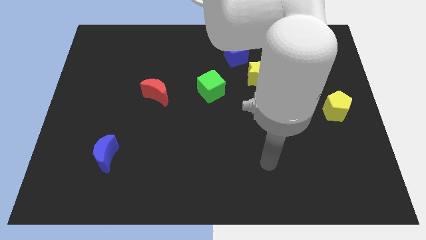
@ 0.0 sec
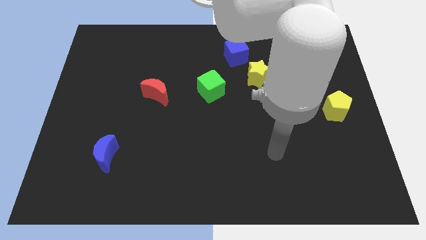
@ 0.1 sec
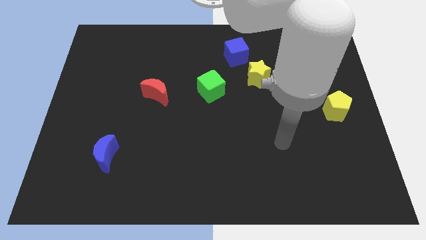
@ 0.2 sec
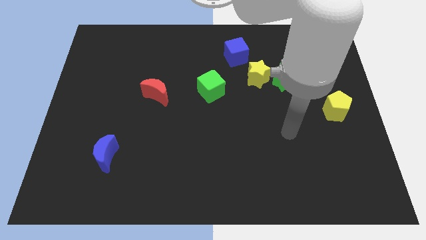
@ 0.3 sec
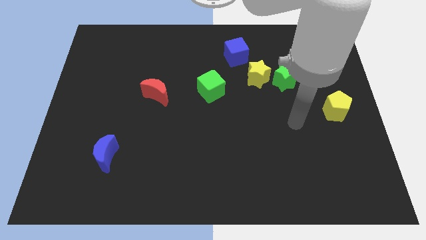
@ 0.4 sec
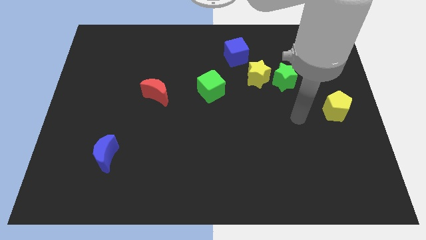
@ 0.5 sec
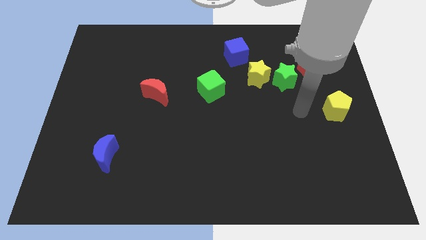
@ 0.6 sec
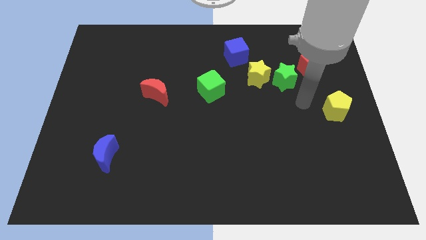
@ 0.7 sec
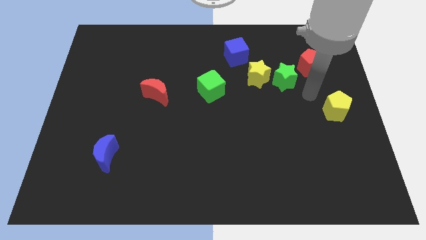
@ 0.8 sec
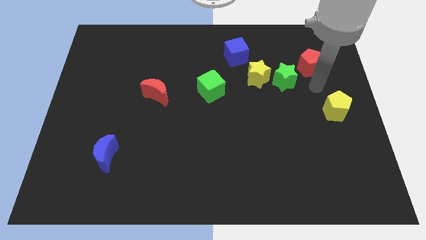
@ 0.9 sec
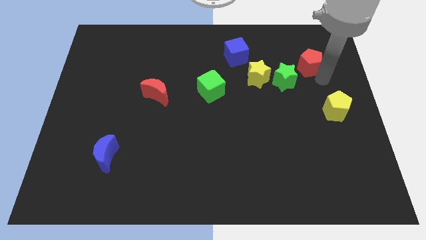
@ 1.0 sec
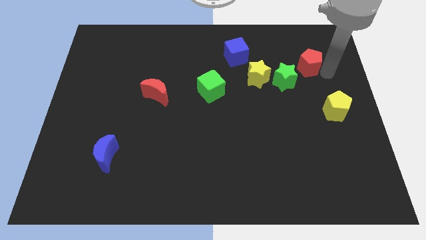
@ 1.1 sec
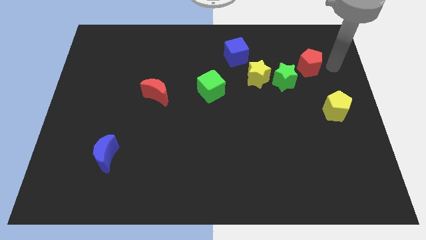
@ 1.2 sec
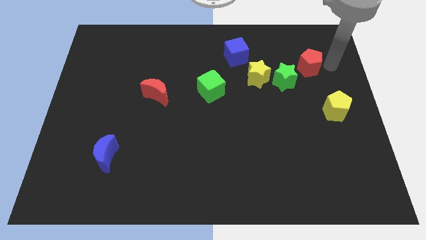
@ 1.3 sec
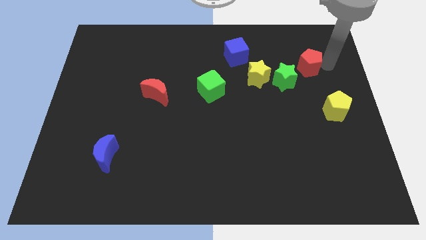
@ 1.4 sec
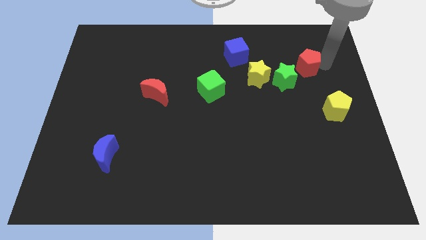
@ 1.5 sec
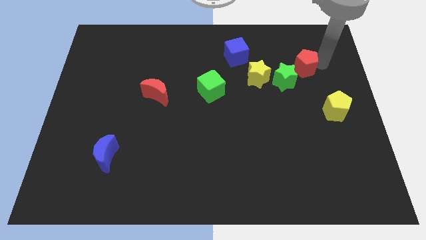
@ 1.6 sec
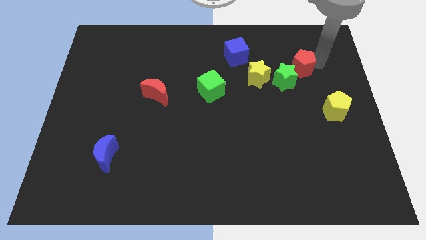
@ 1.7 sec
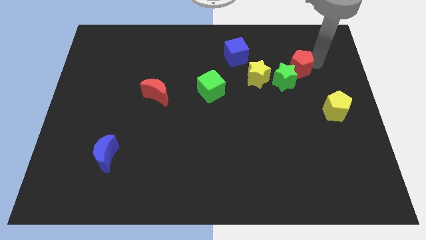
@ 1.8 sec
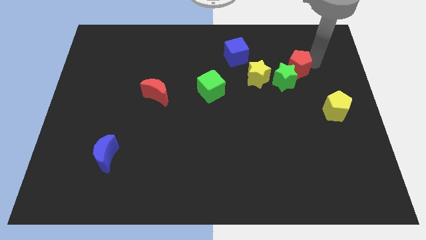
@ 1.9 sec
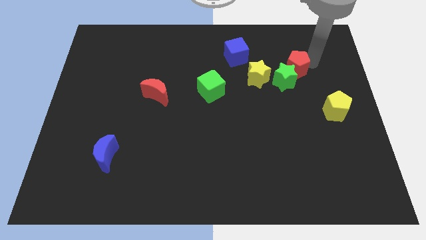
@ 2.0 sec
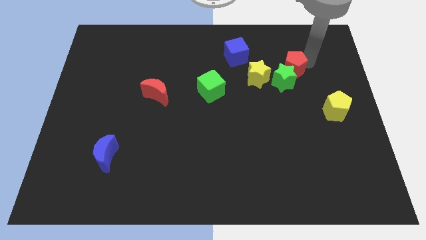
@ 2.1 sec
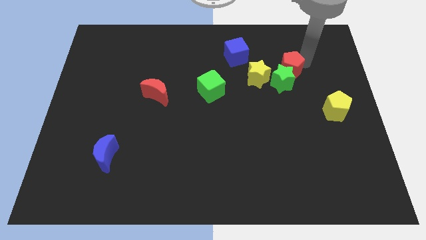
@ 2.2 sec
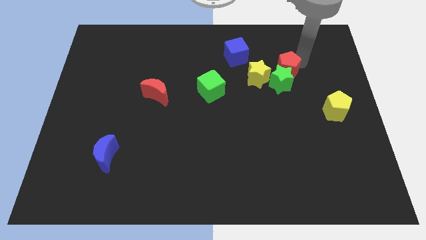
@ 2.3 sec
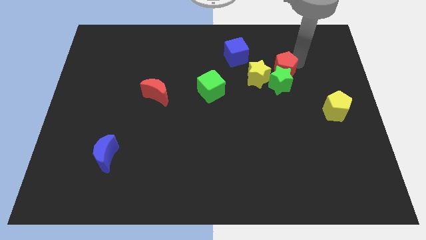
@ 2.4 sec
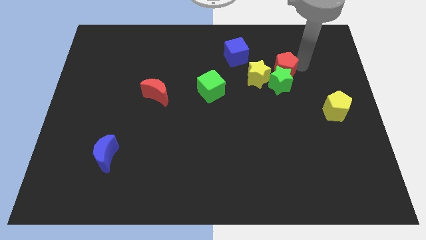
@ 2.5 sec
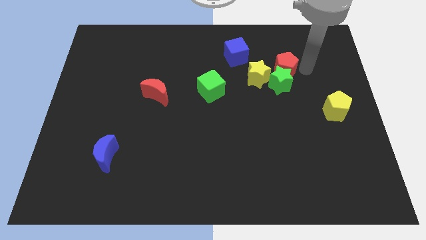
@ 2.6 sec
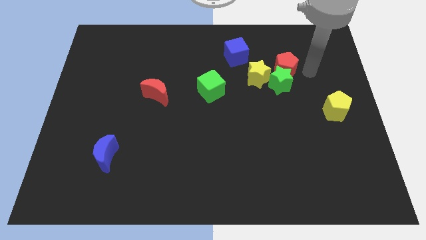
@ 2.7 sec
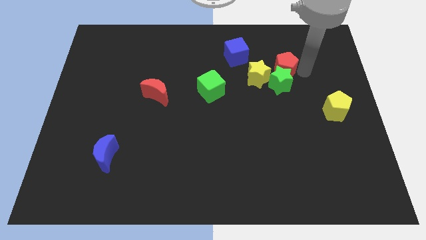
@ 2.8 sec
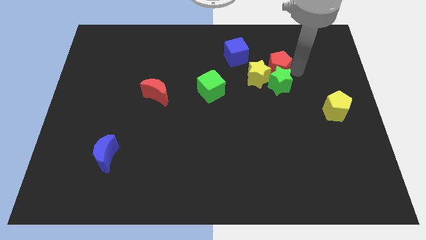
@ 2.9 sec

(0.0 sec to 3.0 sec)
push the red pentagon a little bit left

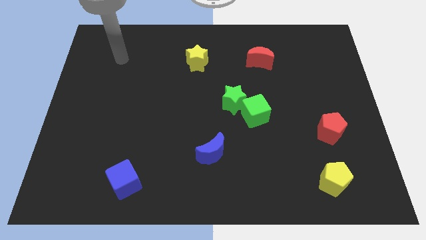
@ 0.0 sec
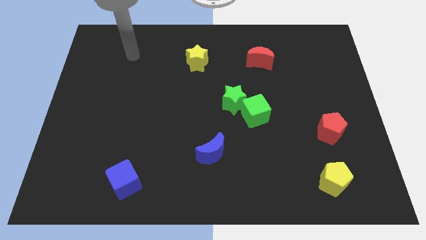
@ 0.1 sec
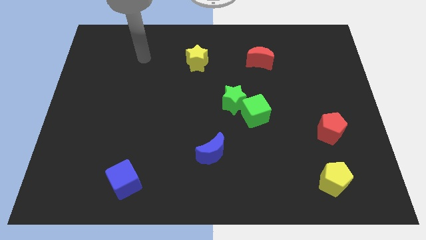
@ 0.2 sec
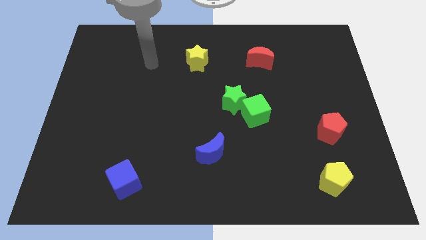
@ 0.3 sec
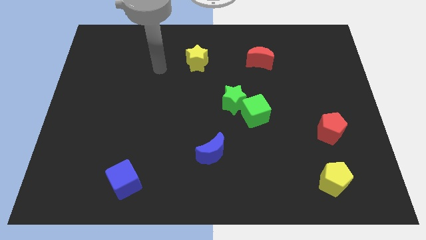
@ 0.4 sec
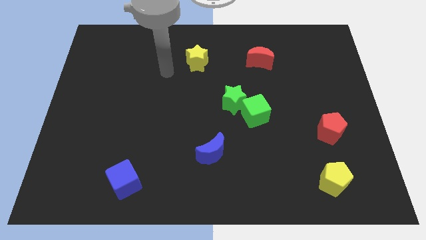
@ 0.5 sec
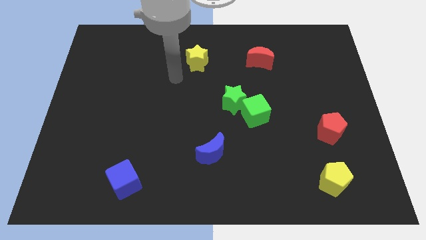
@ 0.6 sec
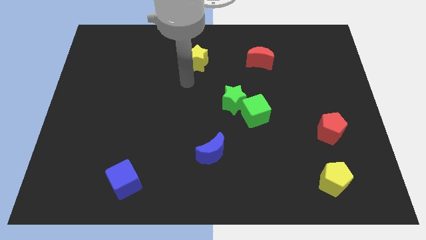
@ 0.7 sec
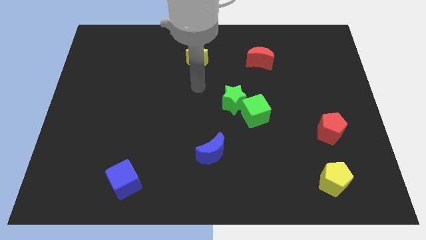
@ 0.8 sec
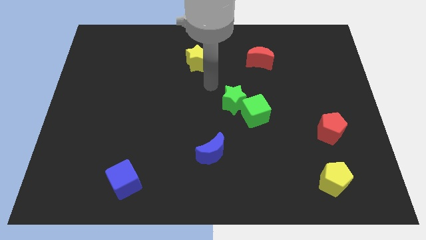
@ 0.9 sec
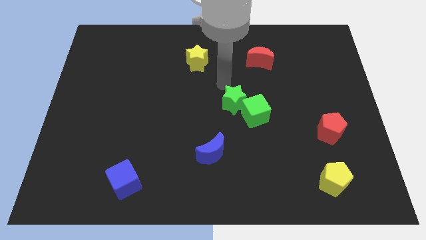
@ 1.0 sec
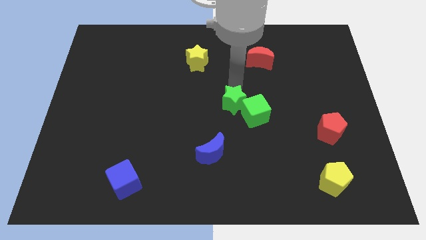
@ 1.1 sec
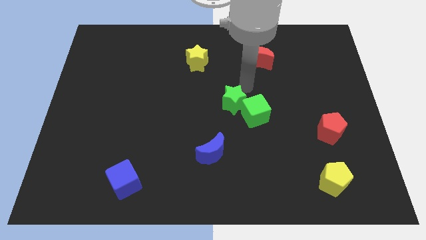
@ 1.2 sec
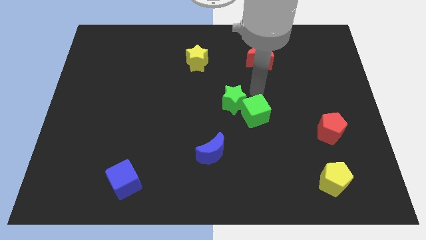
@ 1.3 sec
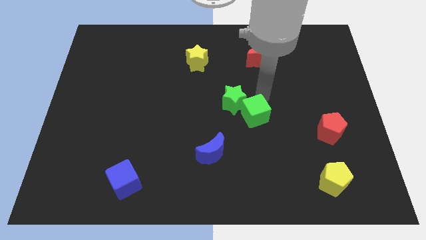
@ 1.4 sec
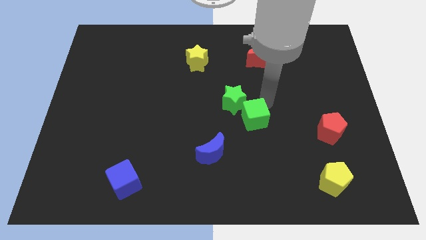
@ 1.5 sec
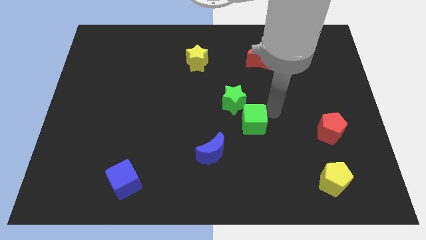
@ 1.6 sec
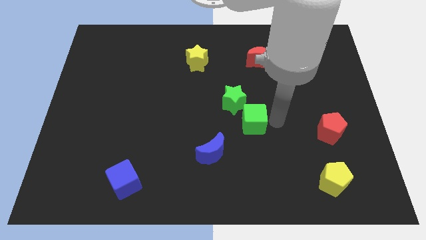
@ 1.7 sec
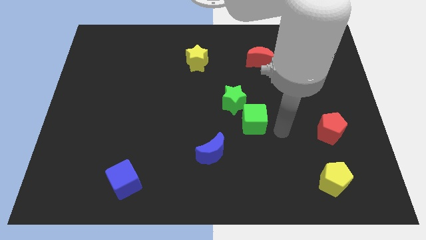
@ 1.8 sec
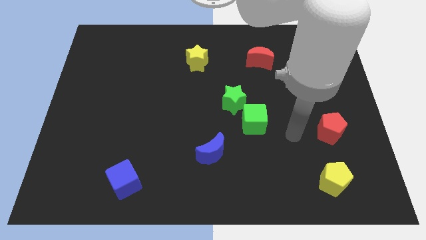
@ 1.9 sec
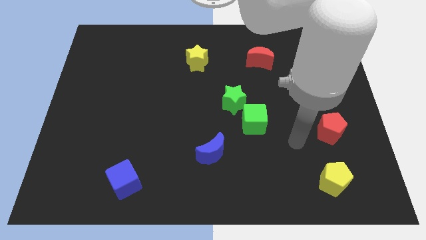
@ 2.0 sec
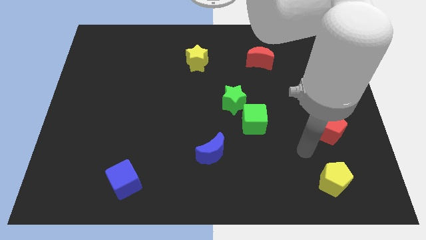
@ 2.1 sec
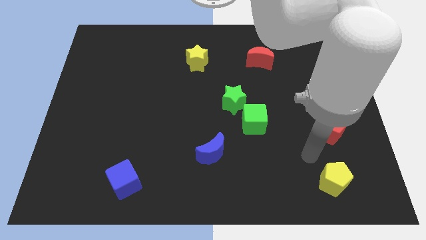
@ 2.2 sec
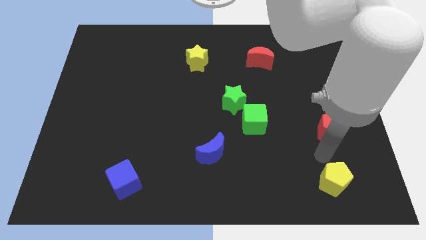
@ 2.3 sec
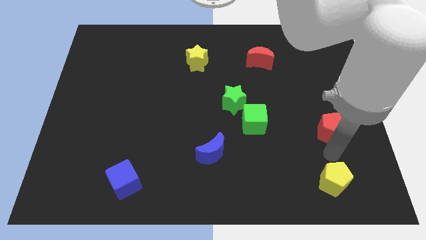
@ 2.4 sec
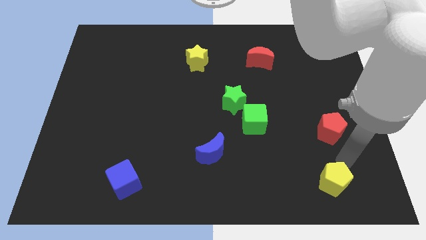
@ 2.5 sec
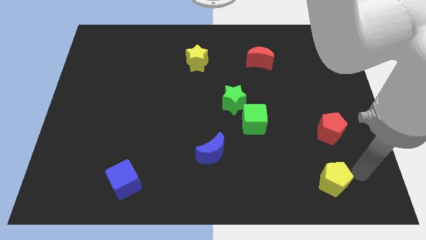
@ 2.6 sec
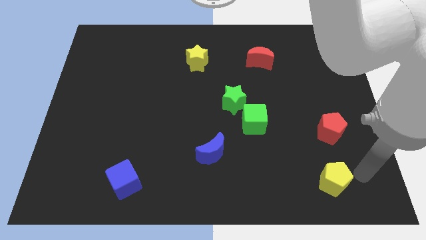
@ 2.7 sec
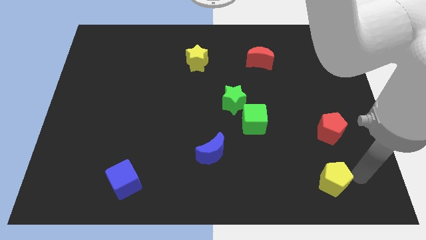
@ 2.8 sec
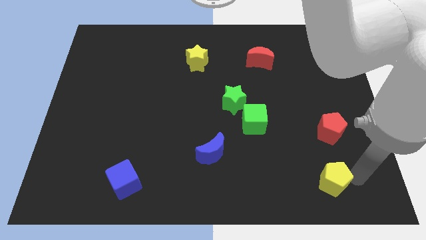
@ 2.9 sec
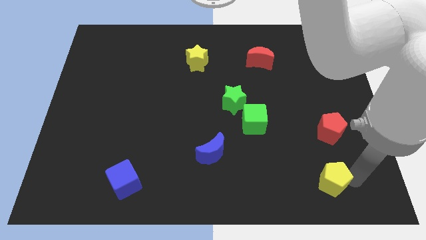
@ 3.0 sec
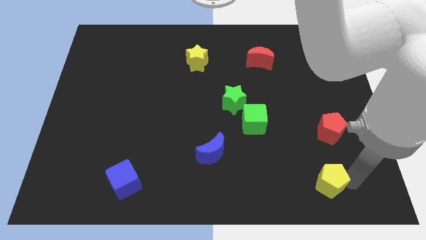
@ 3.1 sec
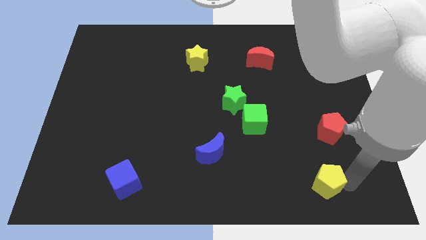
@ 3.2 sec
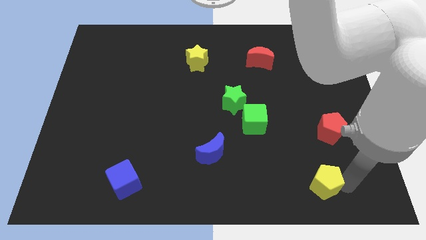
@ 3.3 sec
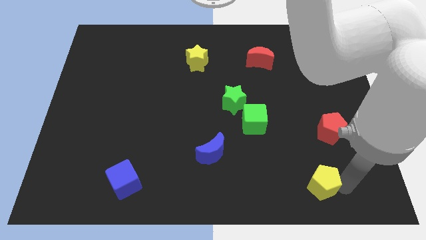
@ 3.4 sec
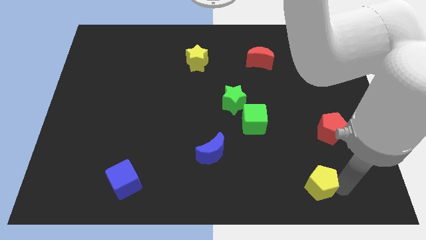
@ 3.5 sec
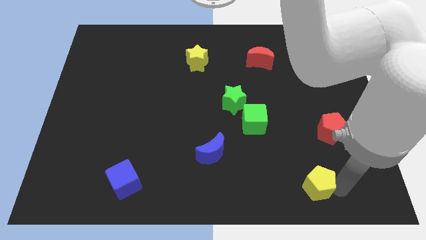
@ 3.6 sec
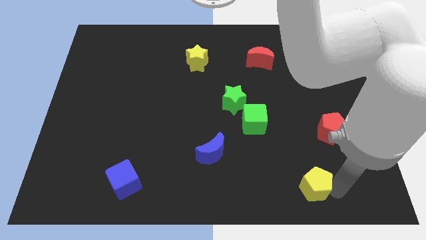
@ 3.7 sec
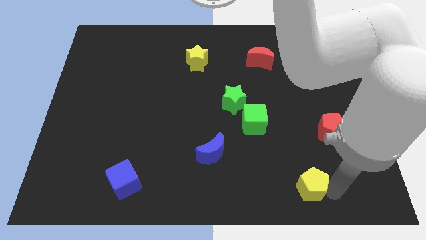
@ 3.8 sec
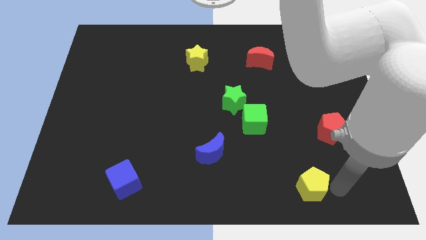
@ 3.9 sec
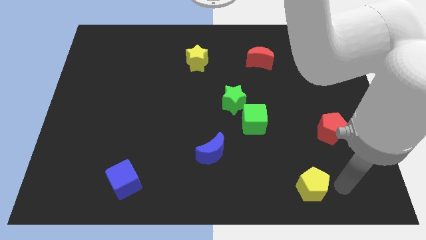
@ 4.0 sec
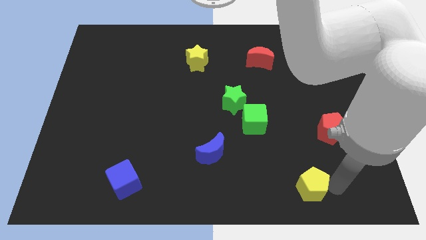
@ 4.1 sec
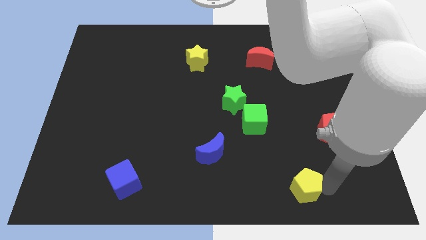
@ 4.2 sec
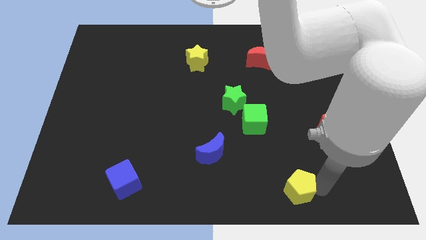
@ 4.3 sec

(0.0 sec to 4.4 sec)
slide the yellow pentagon left a little bit

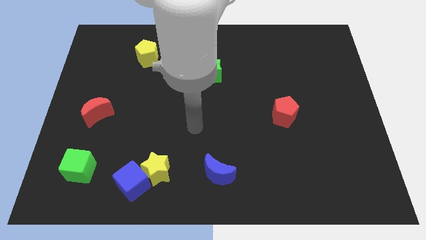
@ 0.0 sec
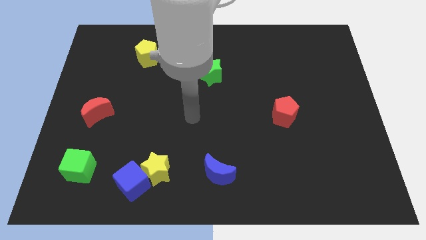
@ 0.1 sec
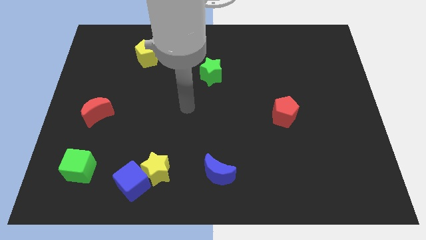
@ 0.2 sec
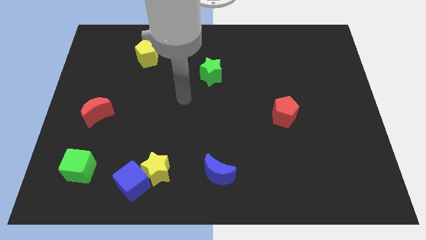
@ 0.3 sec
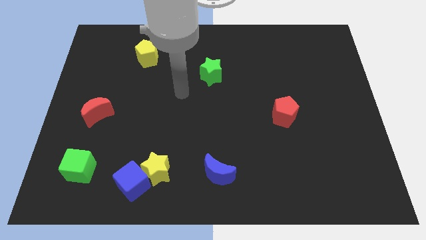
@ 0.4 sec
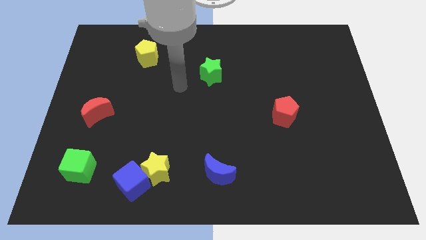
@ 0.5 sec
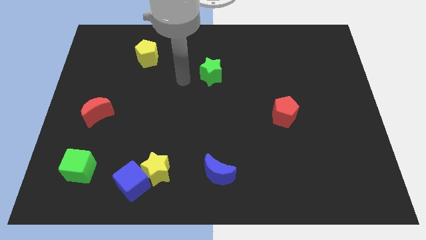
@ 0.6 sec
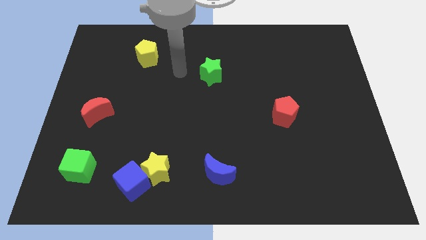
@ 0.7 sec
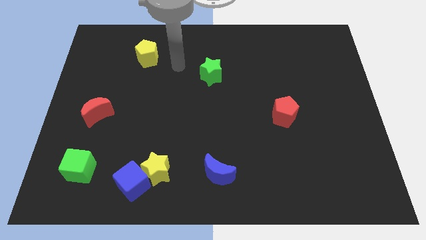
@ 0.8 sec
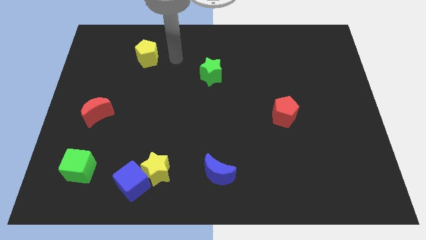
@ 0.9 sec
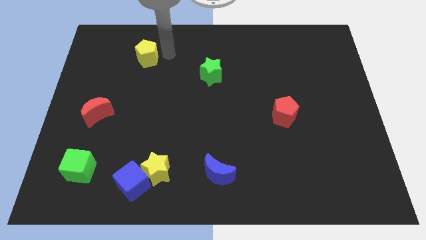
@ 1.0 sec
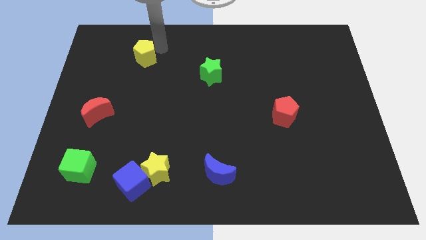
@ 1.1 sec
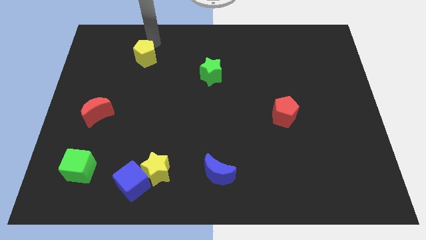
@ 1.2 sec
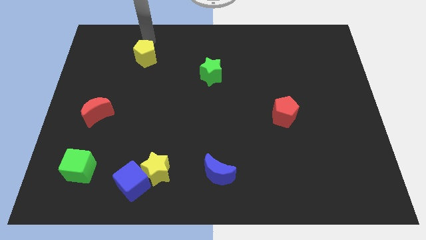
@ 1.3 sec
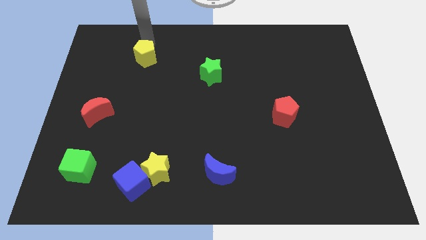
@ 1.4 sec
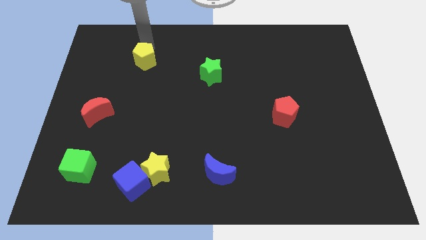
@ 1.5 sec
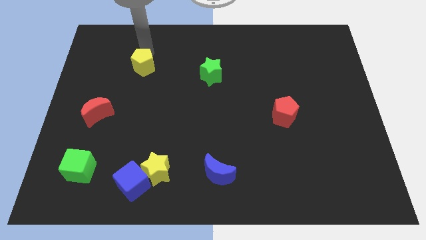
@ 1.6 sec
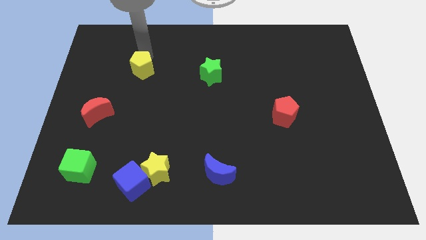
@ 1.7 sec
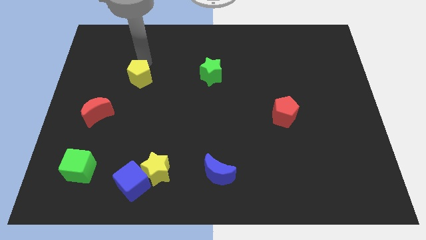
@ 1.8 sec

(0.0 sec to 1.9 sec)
slightly move the yellow pentagon downwards
